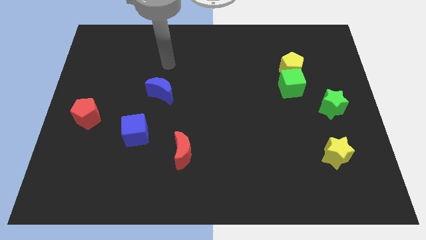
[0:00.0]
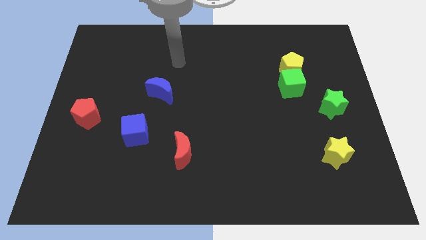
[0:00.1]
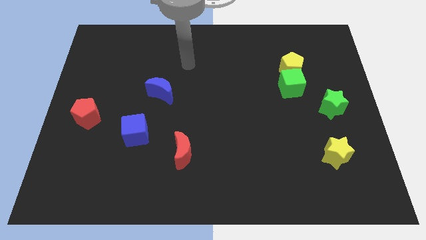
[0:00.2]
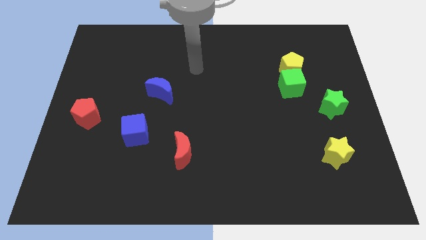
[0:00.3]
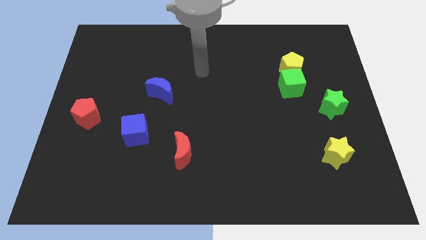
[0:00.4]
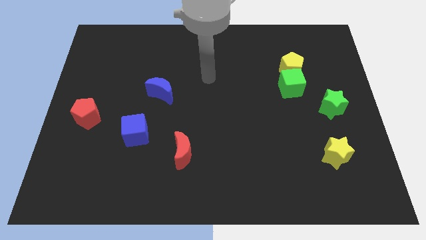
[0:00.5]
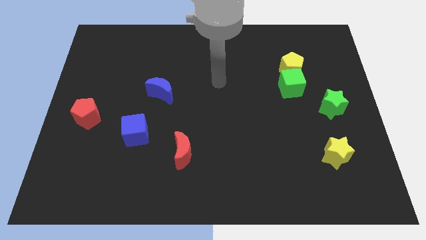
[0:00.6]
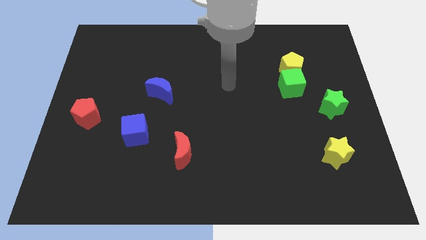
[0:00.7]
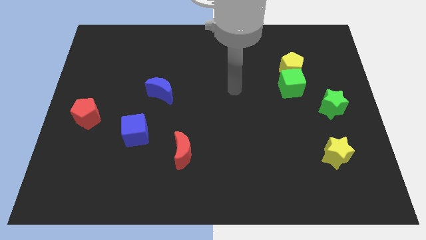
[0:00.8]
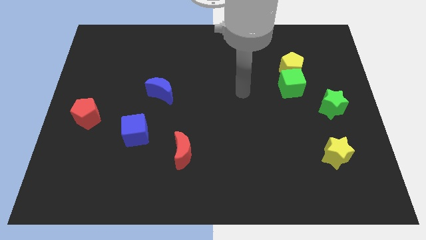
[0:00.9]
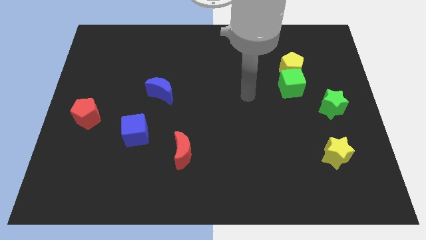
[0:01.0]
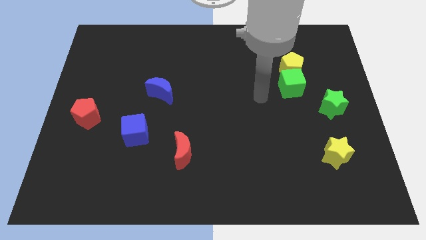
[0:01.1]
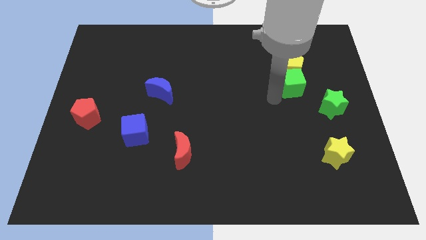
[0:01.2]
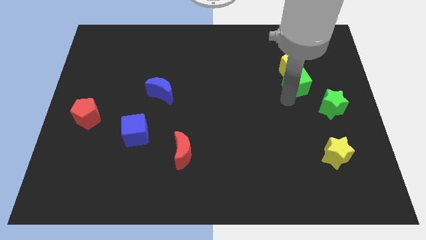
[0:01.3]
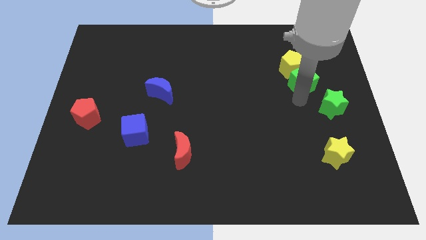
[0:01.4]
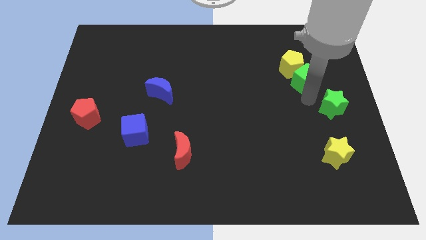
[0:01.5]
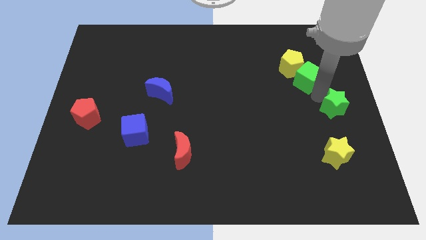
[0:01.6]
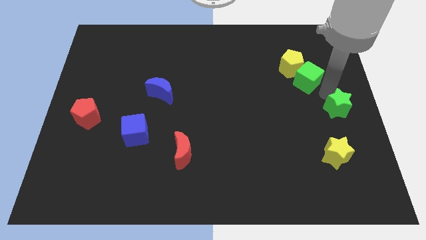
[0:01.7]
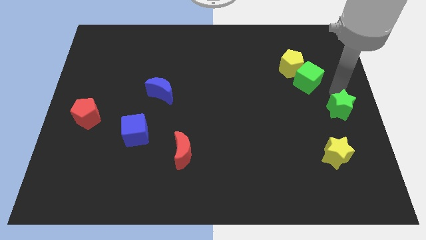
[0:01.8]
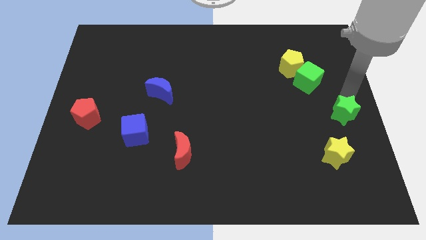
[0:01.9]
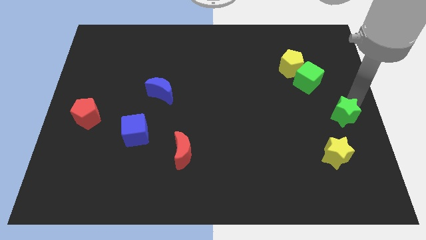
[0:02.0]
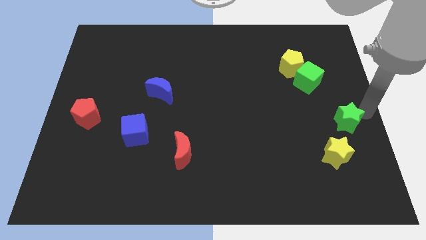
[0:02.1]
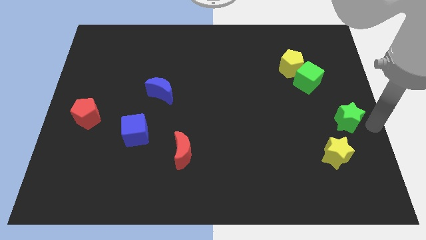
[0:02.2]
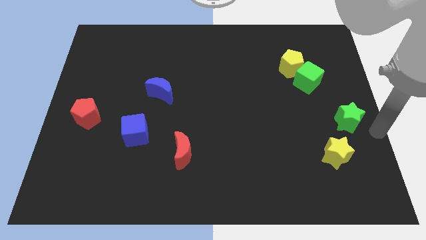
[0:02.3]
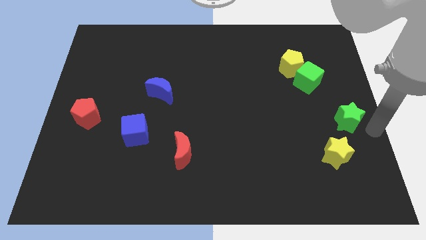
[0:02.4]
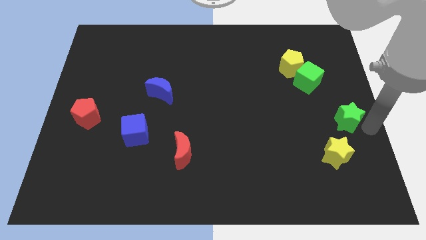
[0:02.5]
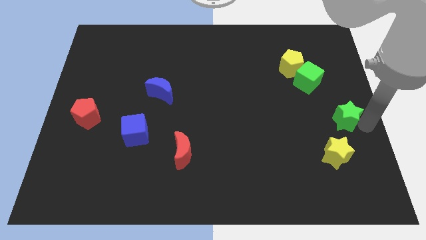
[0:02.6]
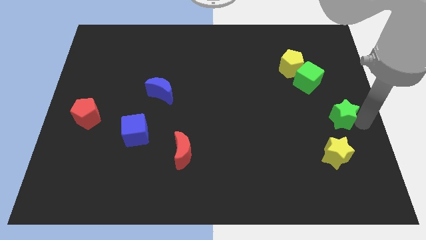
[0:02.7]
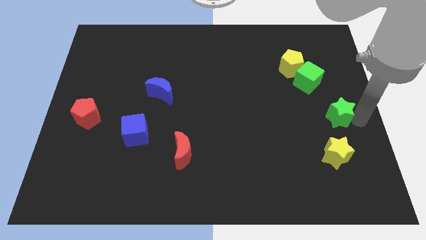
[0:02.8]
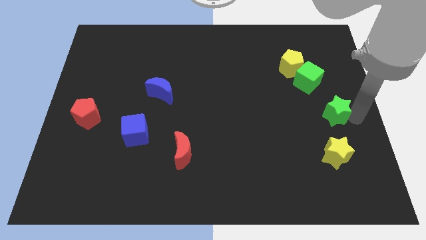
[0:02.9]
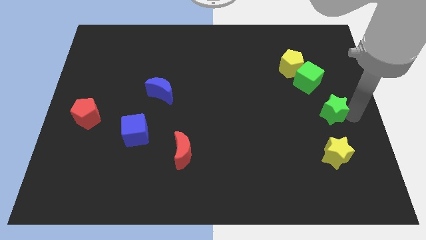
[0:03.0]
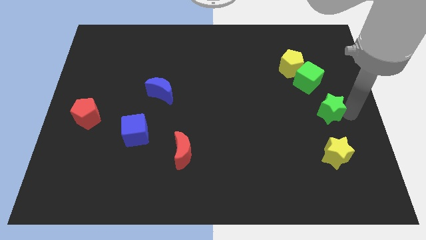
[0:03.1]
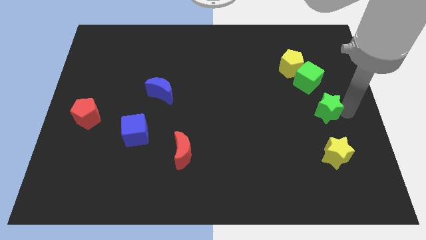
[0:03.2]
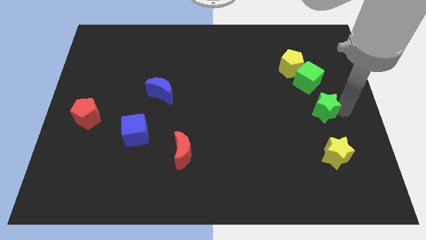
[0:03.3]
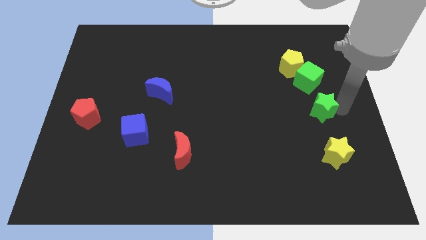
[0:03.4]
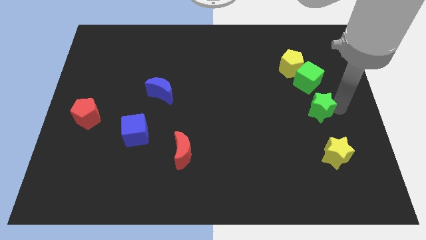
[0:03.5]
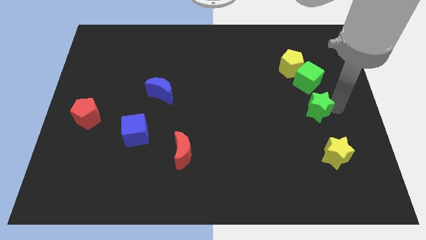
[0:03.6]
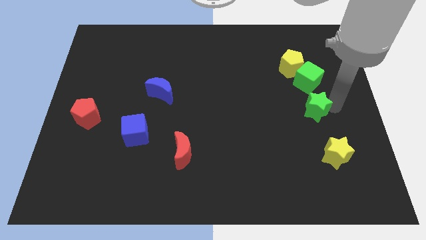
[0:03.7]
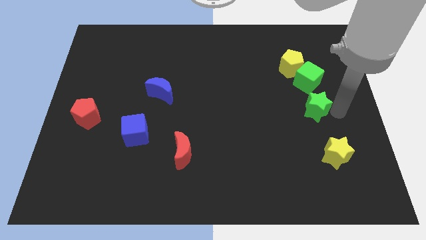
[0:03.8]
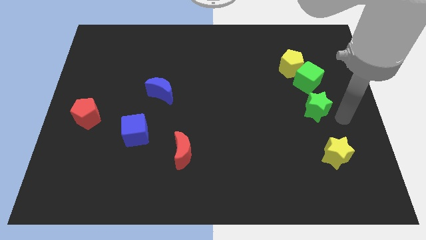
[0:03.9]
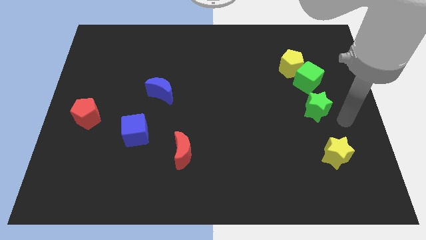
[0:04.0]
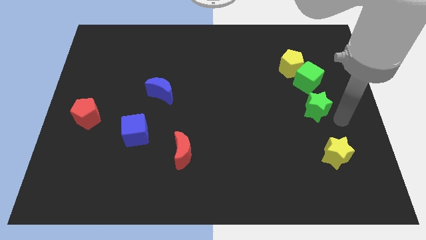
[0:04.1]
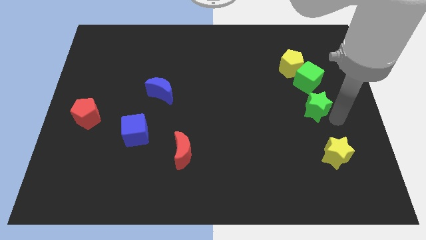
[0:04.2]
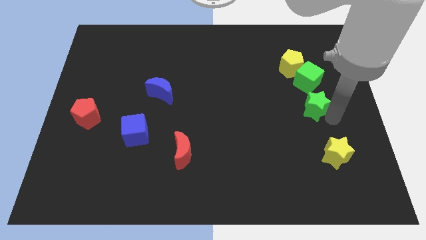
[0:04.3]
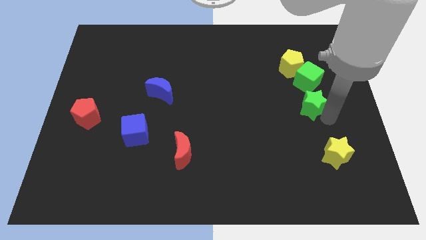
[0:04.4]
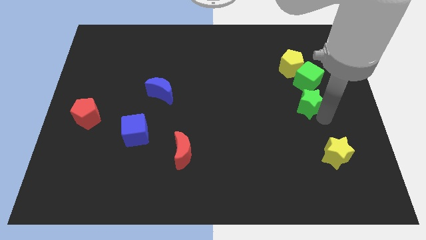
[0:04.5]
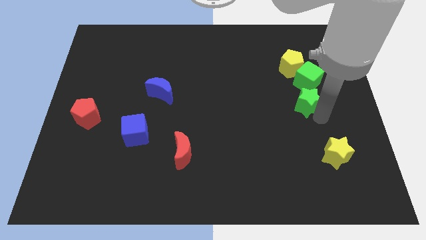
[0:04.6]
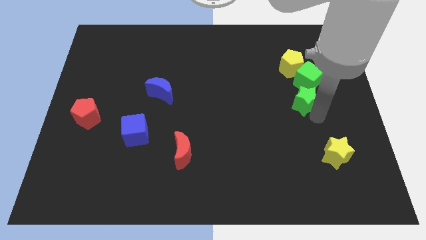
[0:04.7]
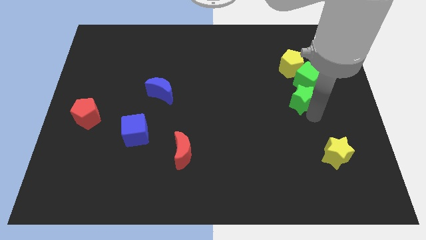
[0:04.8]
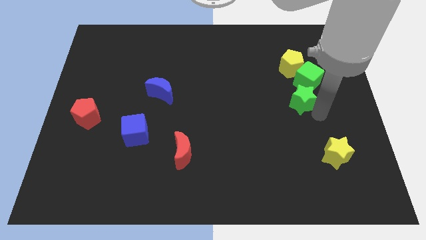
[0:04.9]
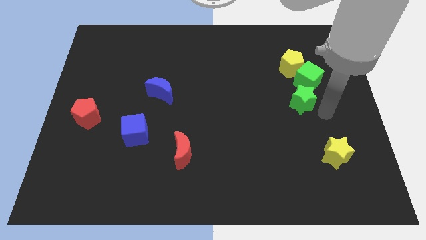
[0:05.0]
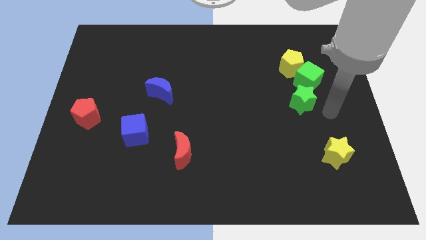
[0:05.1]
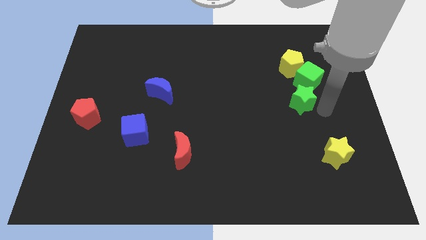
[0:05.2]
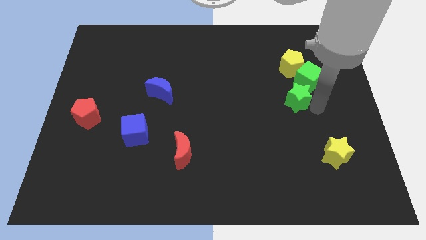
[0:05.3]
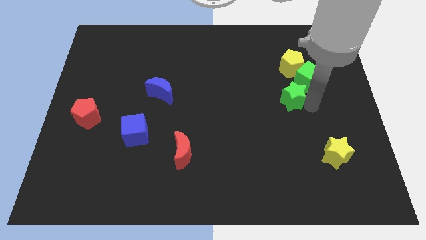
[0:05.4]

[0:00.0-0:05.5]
slightly move the green star diagonally up and left

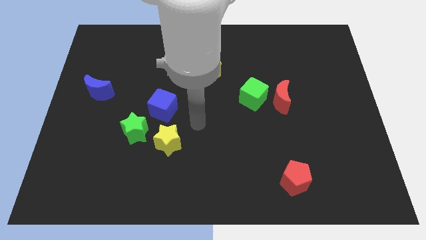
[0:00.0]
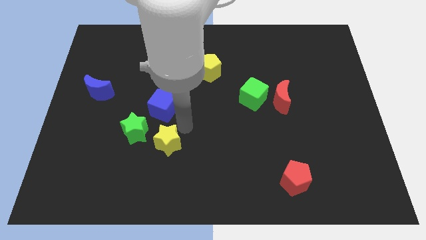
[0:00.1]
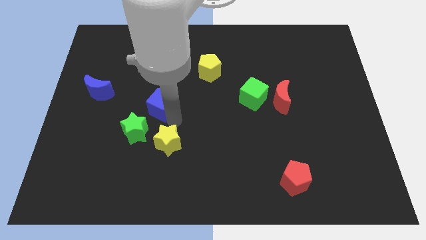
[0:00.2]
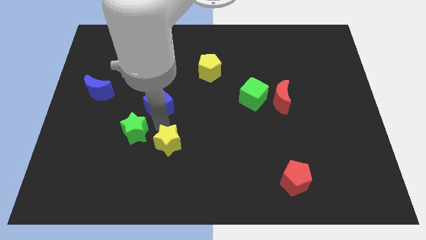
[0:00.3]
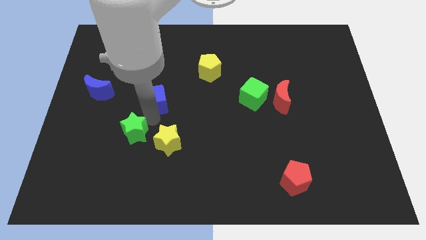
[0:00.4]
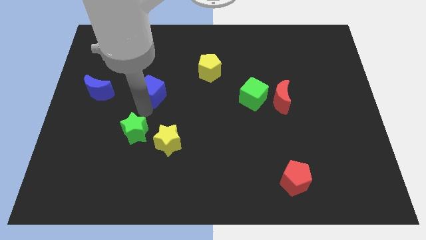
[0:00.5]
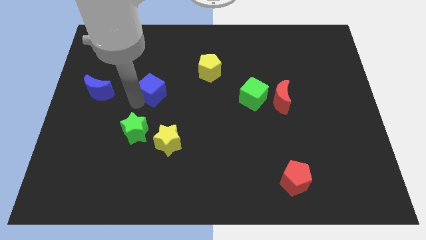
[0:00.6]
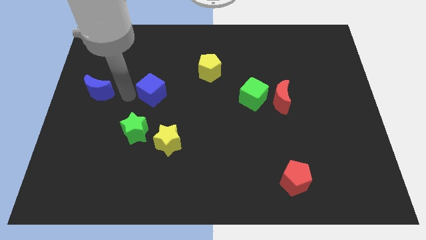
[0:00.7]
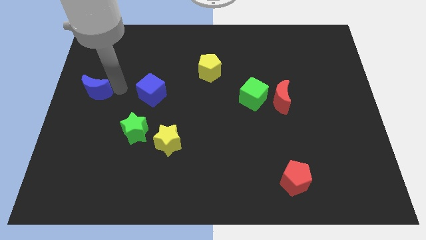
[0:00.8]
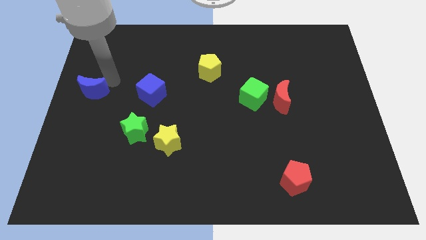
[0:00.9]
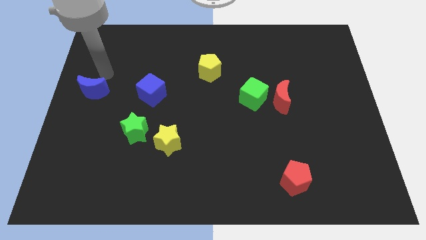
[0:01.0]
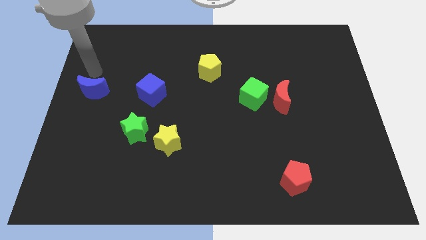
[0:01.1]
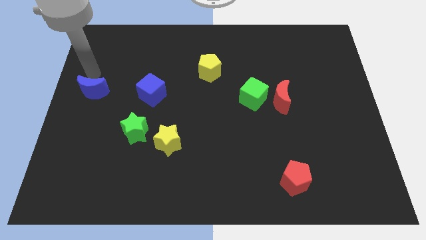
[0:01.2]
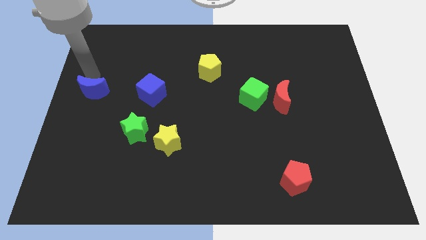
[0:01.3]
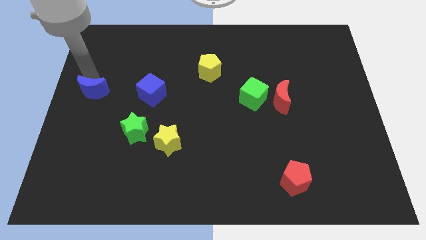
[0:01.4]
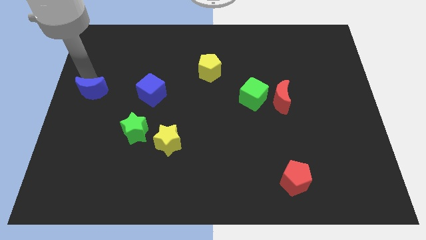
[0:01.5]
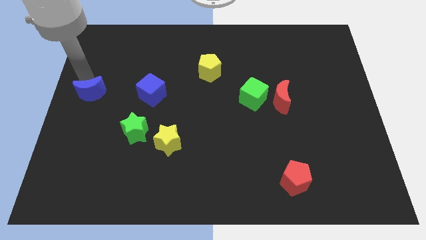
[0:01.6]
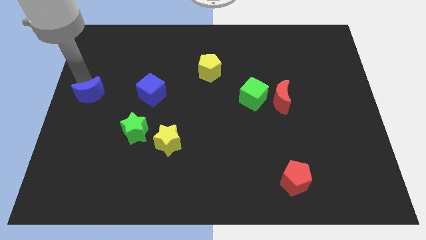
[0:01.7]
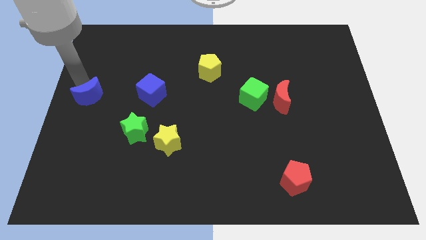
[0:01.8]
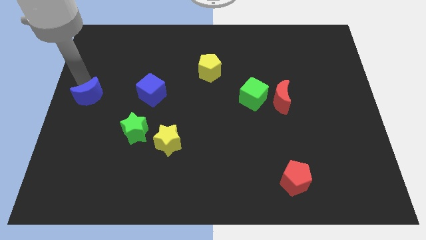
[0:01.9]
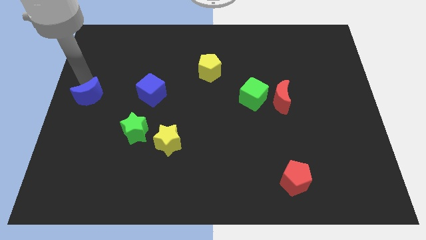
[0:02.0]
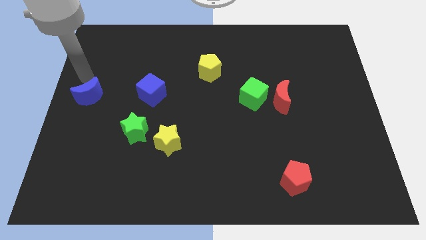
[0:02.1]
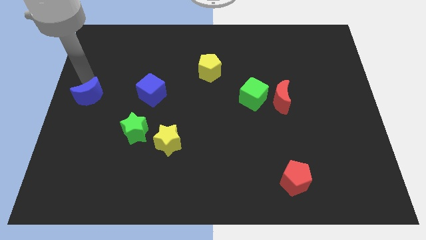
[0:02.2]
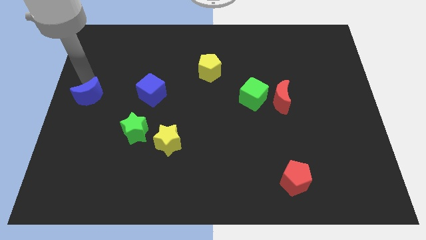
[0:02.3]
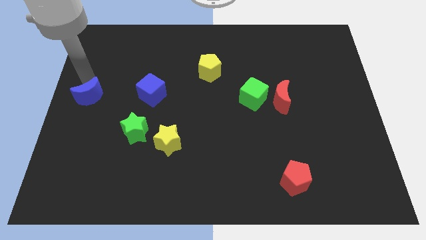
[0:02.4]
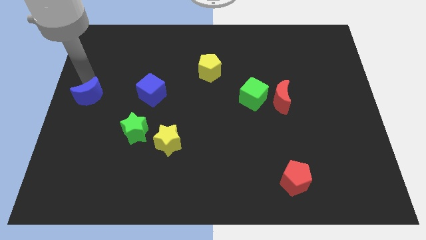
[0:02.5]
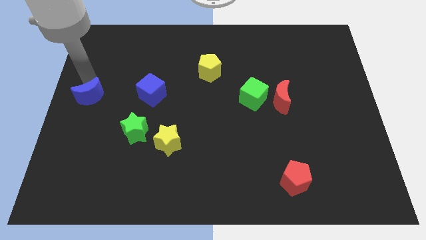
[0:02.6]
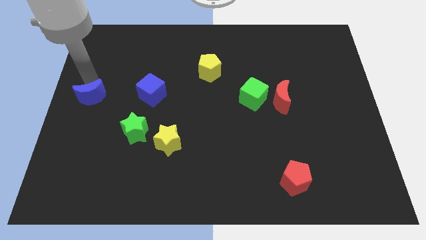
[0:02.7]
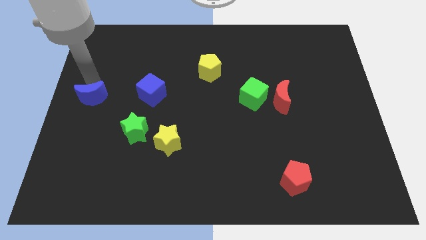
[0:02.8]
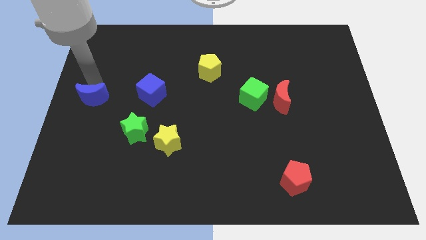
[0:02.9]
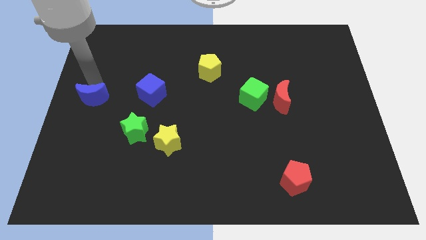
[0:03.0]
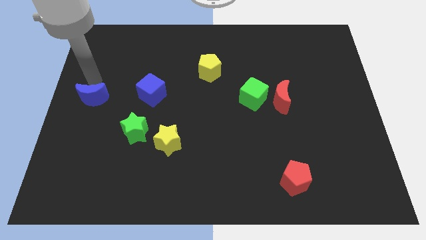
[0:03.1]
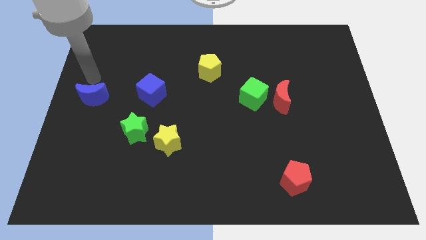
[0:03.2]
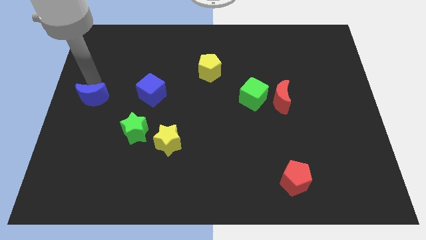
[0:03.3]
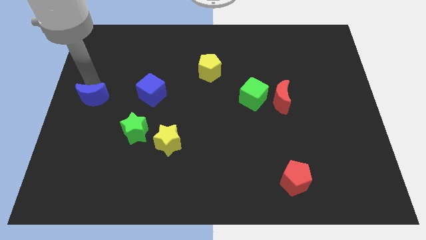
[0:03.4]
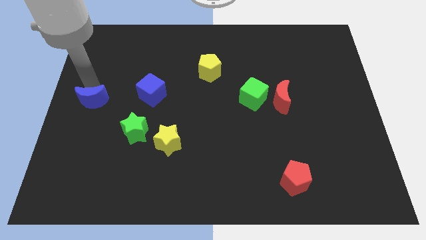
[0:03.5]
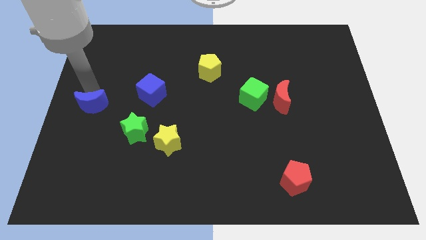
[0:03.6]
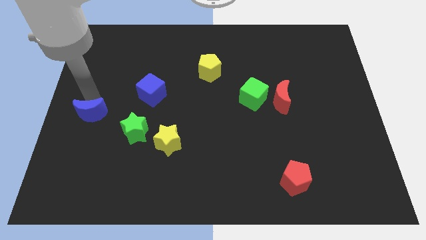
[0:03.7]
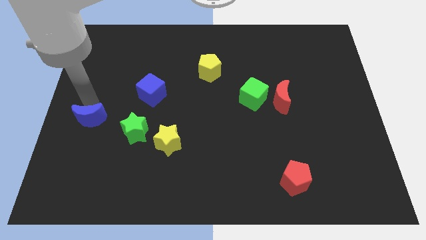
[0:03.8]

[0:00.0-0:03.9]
slightly slide the blue moon down
